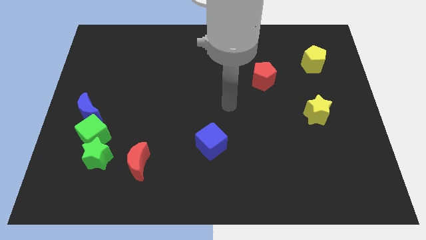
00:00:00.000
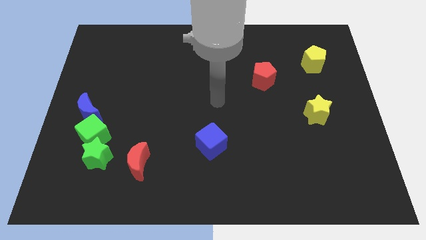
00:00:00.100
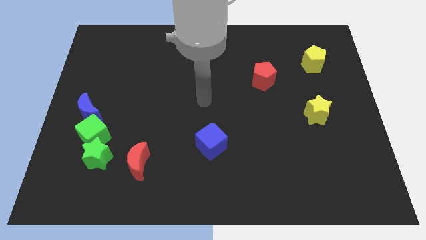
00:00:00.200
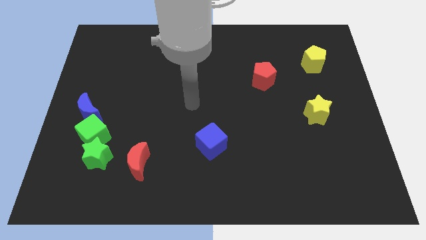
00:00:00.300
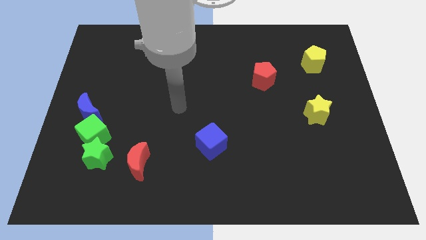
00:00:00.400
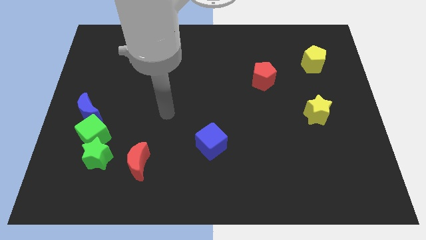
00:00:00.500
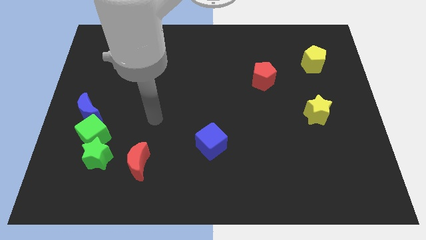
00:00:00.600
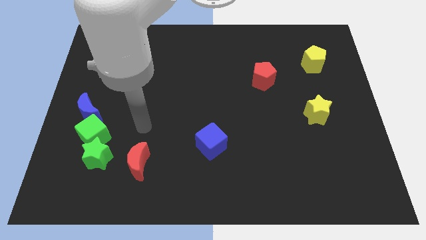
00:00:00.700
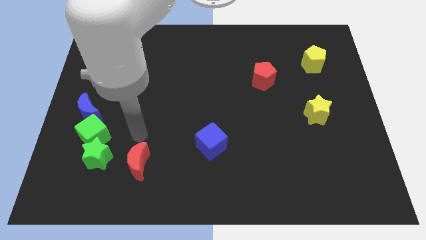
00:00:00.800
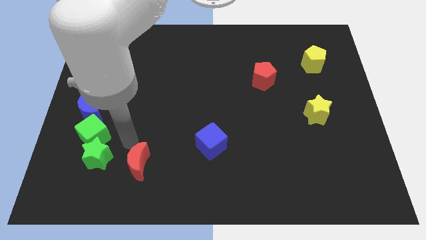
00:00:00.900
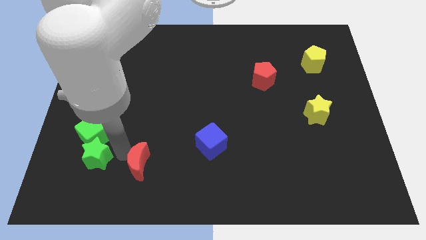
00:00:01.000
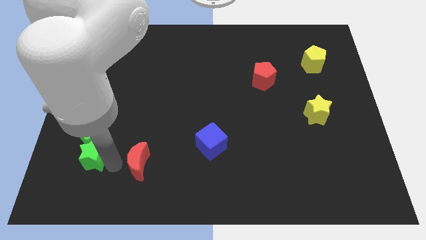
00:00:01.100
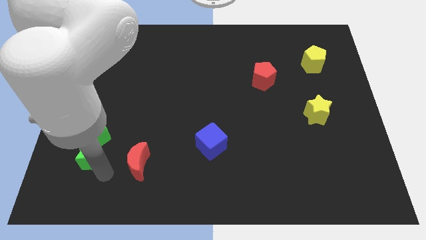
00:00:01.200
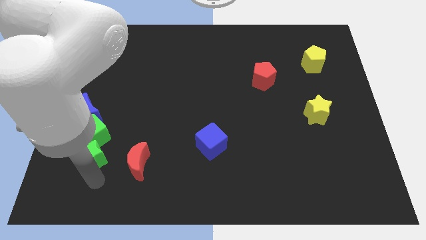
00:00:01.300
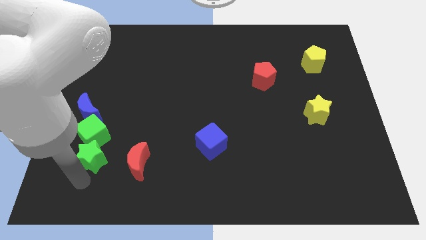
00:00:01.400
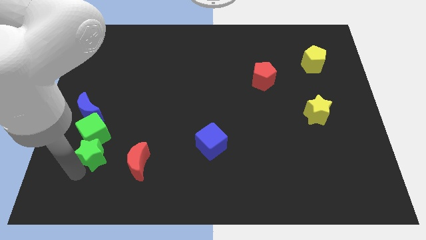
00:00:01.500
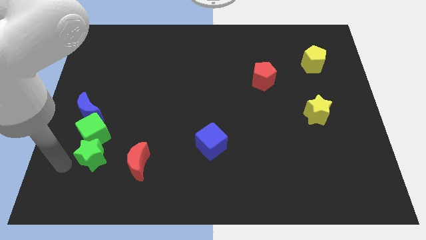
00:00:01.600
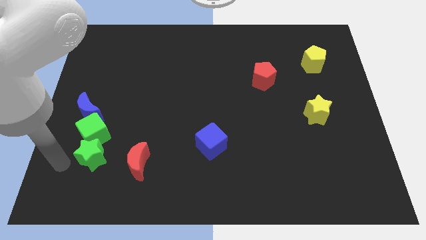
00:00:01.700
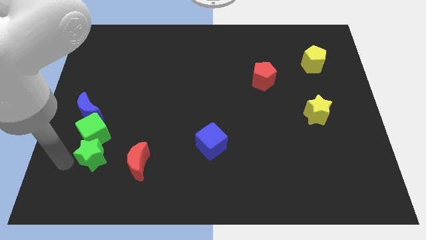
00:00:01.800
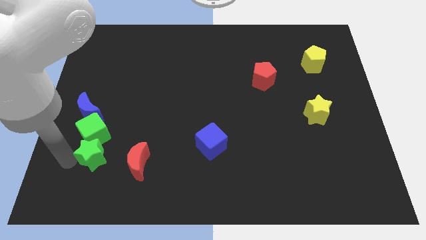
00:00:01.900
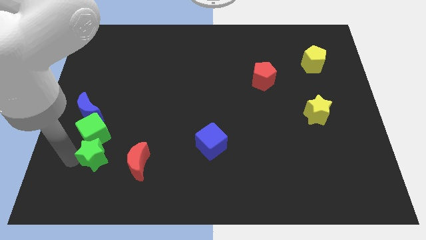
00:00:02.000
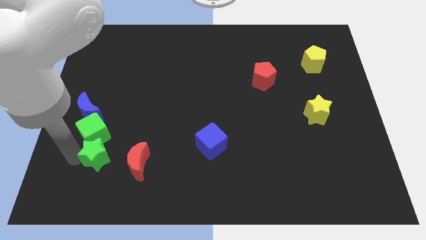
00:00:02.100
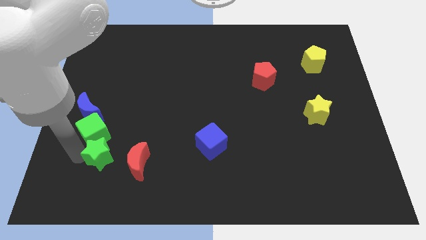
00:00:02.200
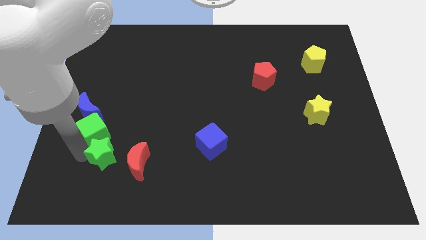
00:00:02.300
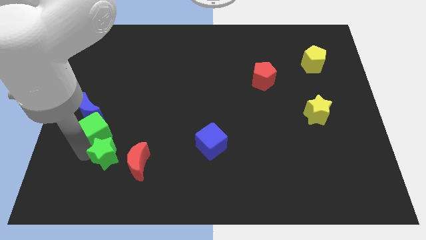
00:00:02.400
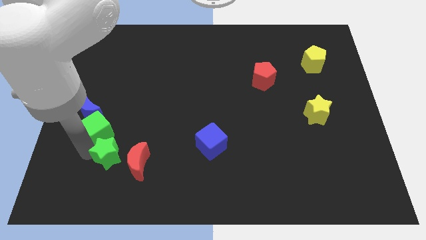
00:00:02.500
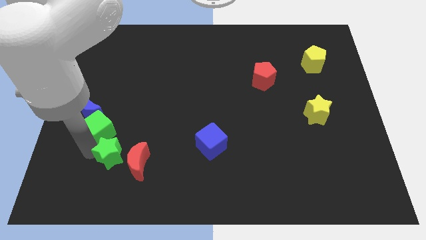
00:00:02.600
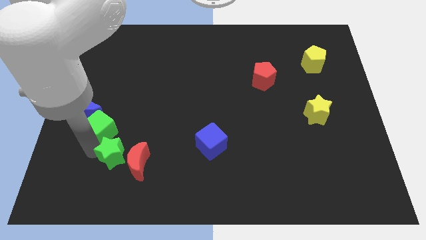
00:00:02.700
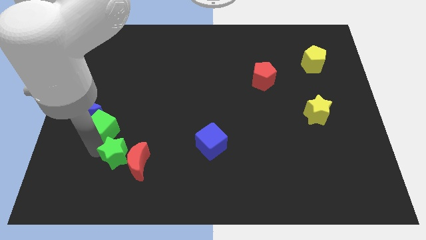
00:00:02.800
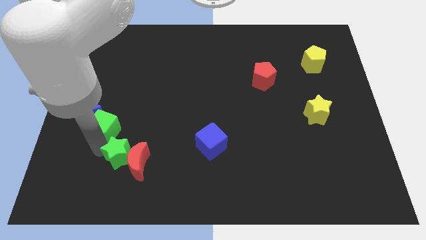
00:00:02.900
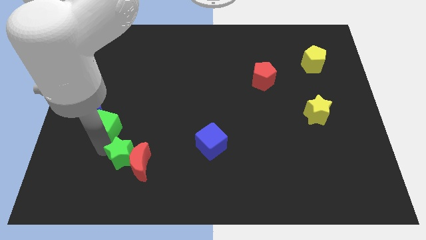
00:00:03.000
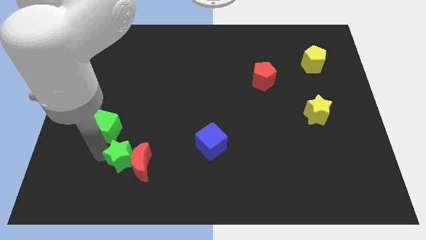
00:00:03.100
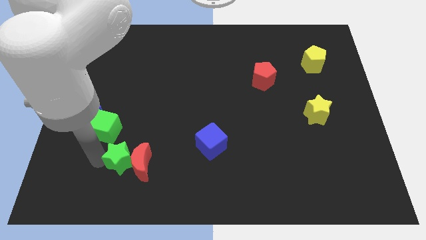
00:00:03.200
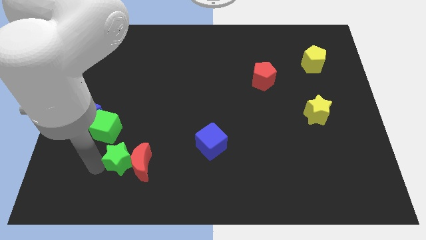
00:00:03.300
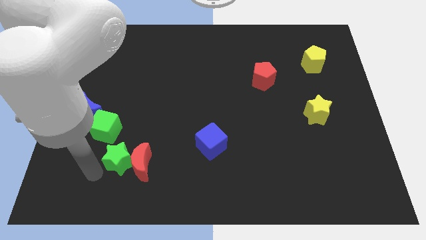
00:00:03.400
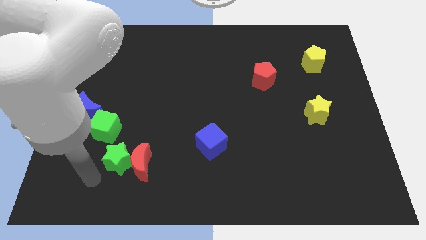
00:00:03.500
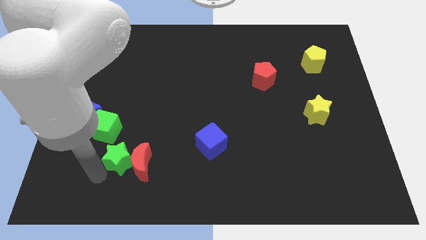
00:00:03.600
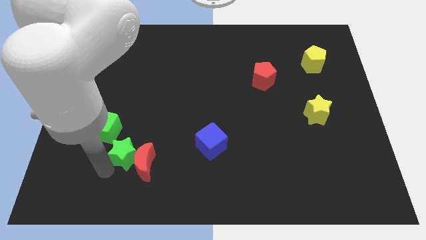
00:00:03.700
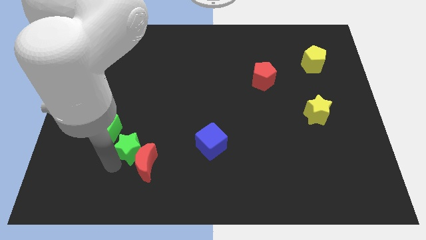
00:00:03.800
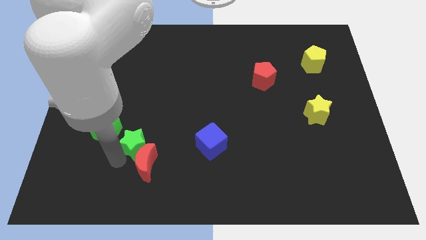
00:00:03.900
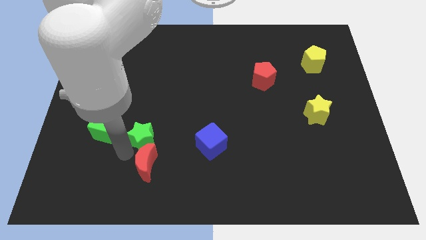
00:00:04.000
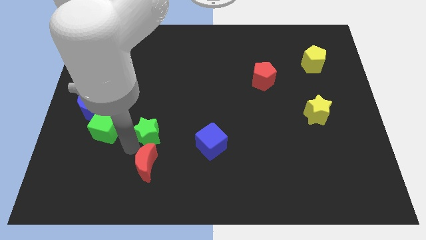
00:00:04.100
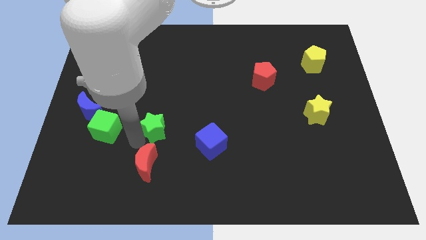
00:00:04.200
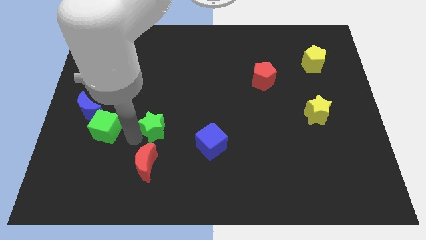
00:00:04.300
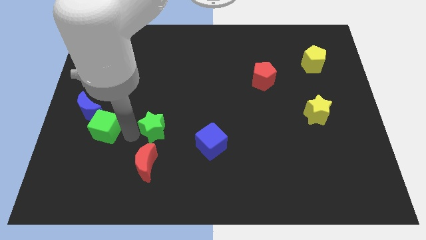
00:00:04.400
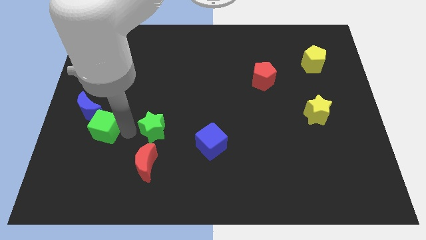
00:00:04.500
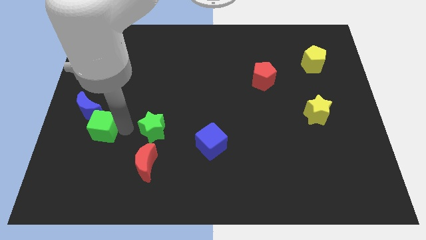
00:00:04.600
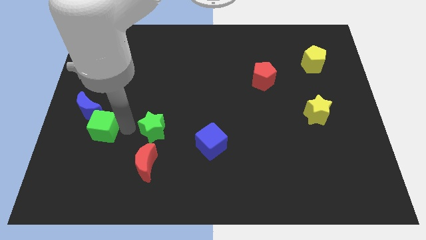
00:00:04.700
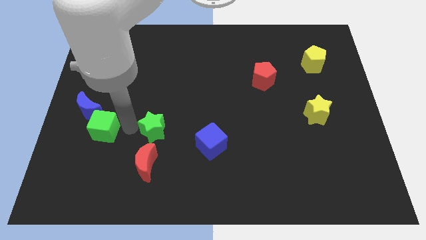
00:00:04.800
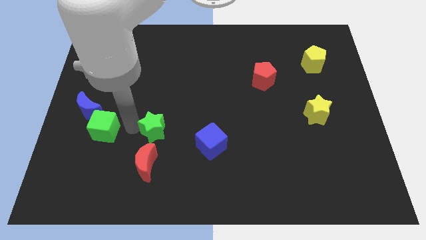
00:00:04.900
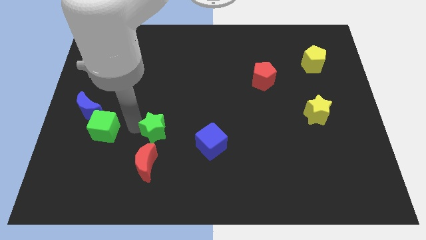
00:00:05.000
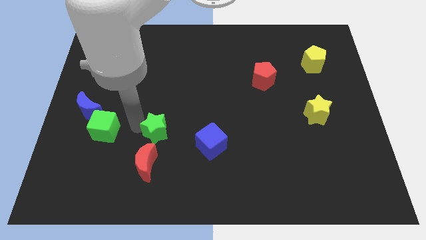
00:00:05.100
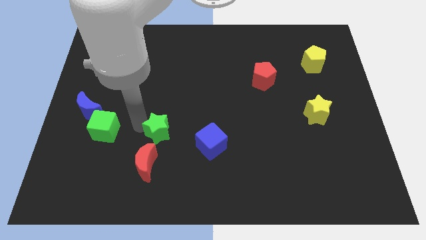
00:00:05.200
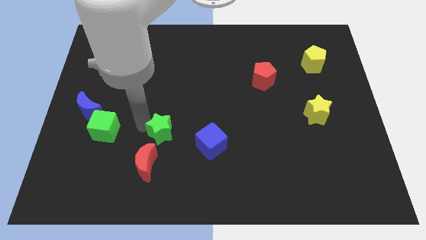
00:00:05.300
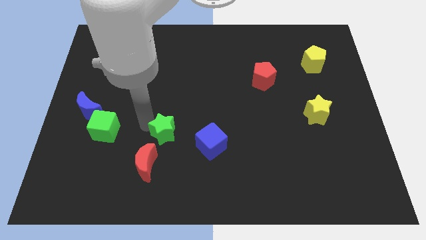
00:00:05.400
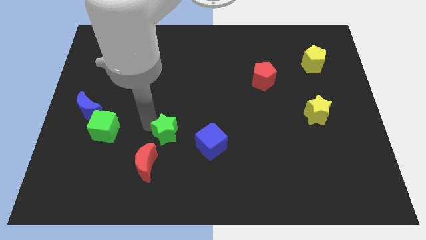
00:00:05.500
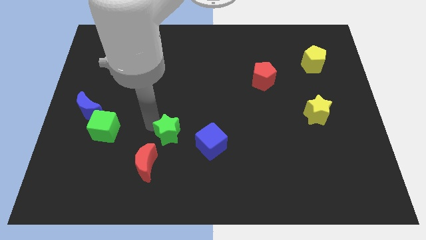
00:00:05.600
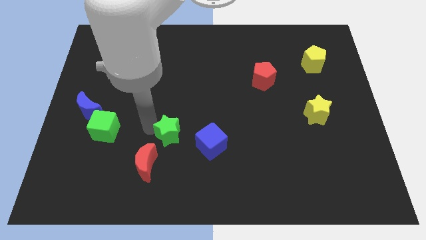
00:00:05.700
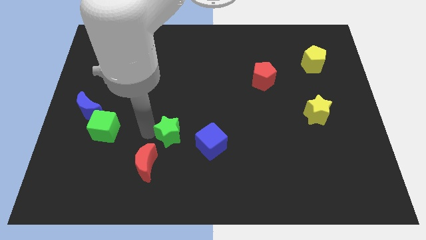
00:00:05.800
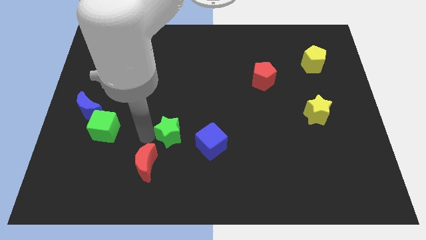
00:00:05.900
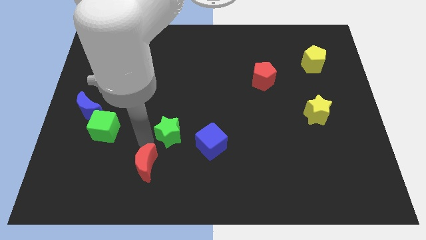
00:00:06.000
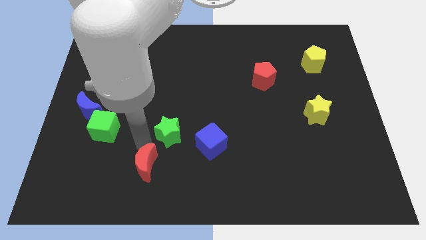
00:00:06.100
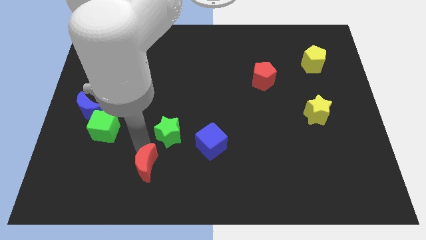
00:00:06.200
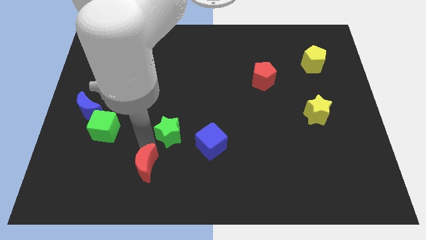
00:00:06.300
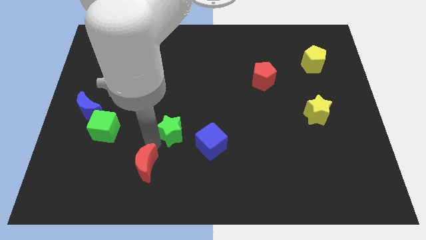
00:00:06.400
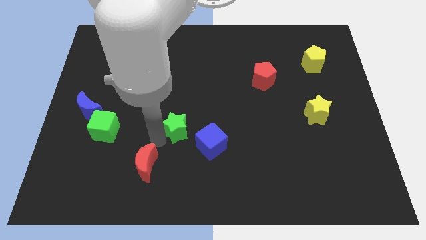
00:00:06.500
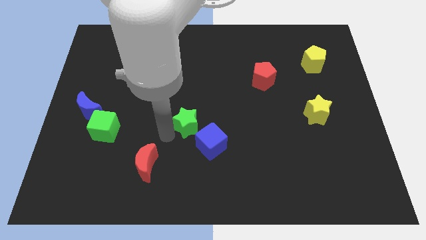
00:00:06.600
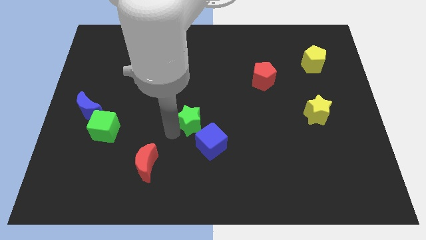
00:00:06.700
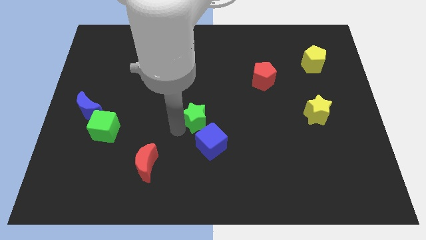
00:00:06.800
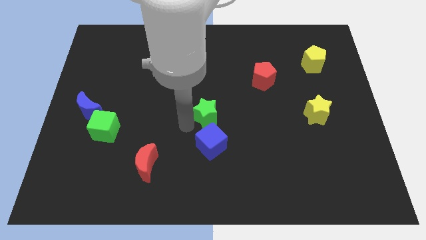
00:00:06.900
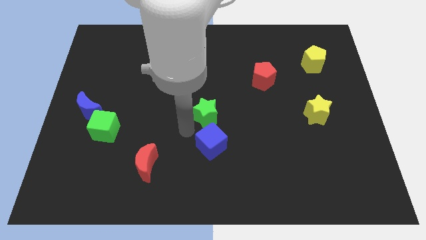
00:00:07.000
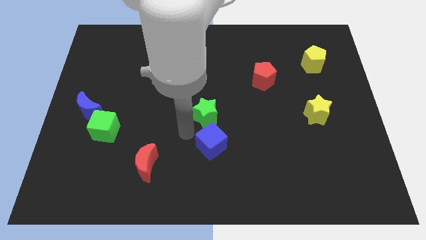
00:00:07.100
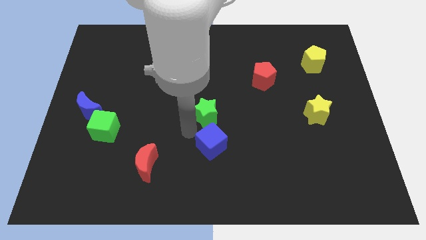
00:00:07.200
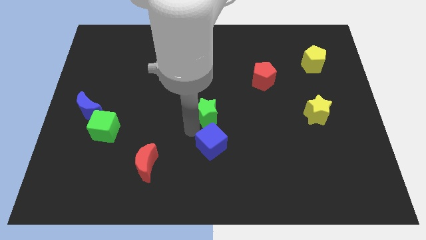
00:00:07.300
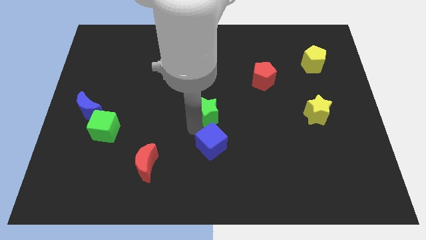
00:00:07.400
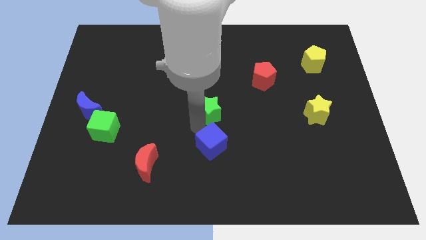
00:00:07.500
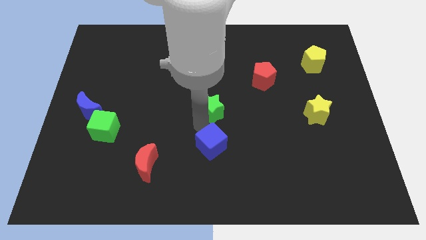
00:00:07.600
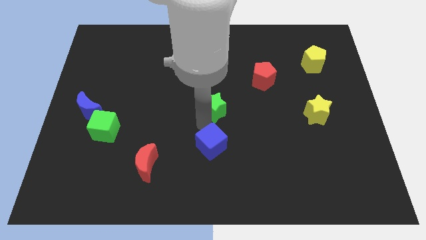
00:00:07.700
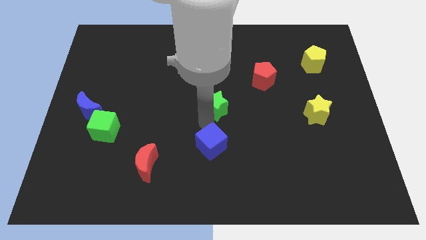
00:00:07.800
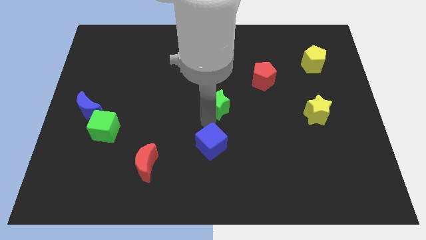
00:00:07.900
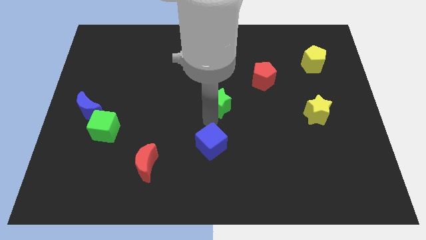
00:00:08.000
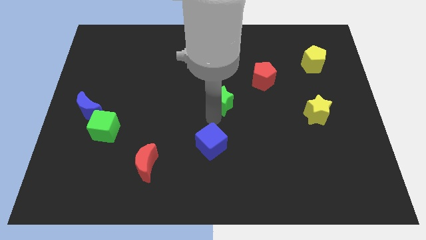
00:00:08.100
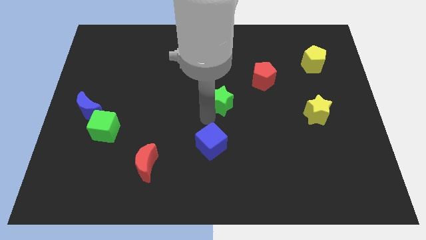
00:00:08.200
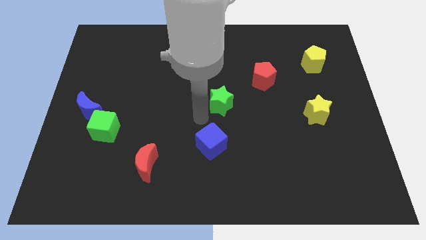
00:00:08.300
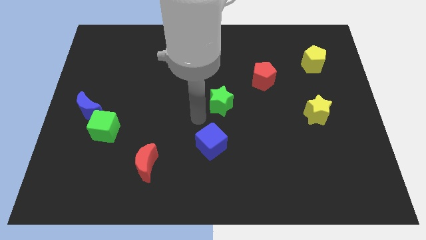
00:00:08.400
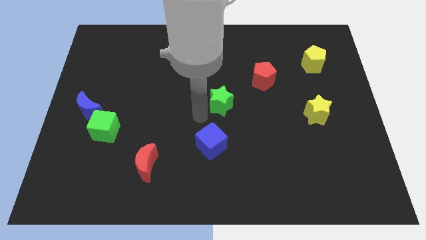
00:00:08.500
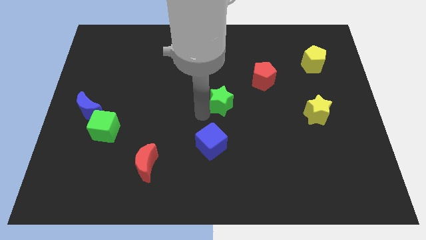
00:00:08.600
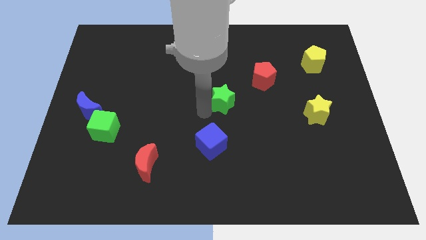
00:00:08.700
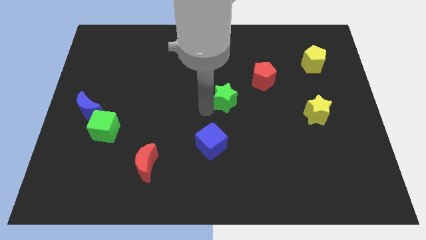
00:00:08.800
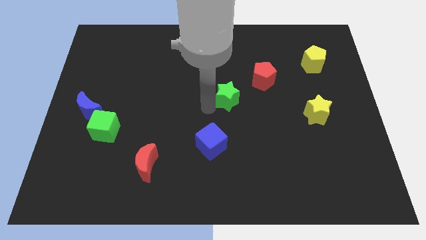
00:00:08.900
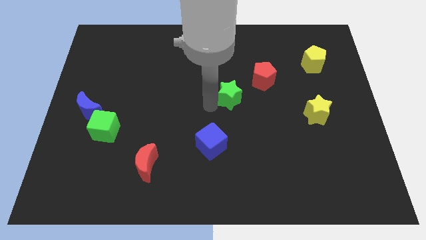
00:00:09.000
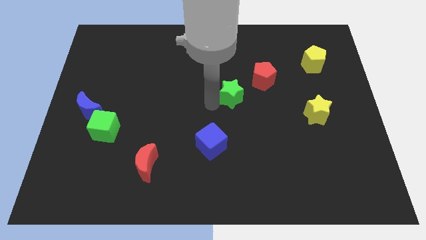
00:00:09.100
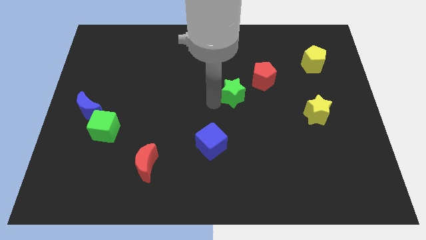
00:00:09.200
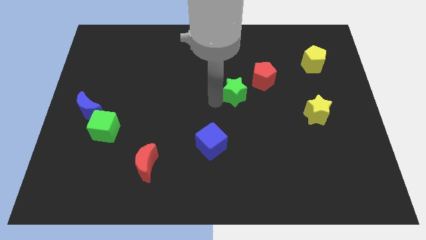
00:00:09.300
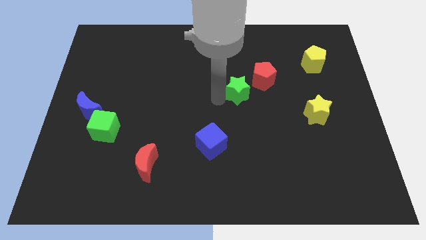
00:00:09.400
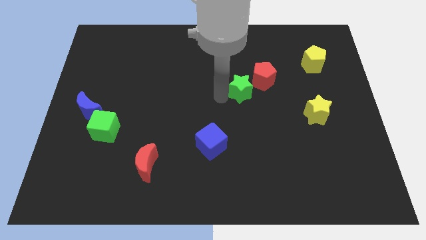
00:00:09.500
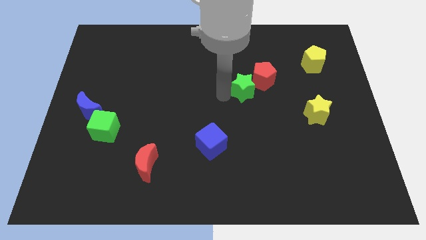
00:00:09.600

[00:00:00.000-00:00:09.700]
push the green star close to the red pentagon
